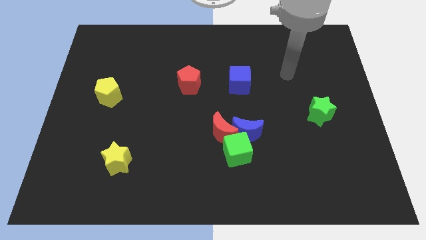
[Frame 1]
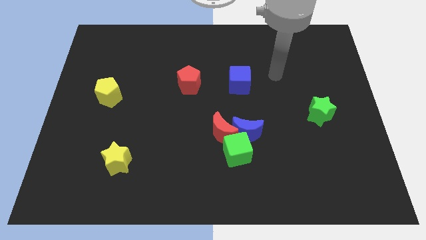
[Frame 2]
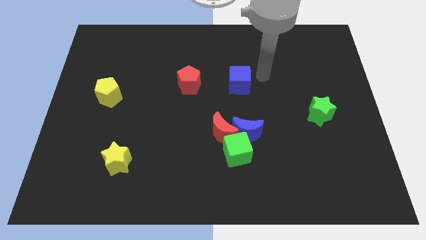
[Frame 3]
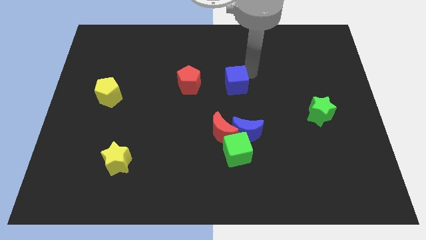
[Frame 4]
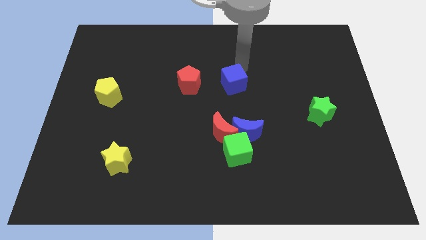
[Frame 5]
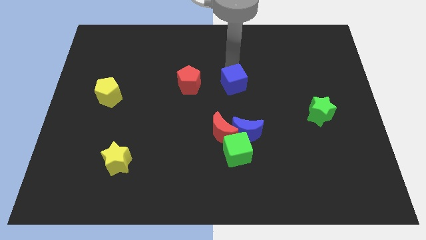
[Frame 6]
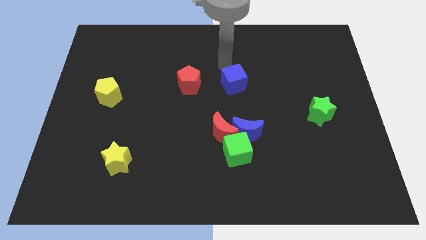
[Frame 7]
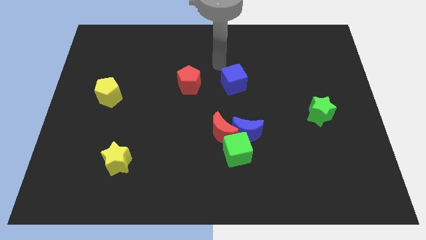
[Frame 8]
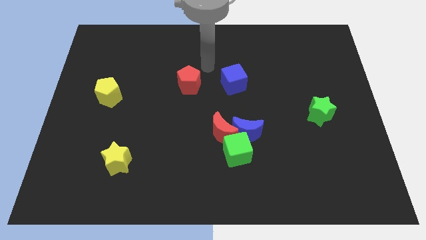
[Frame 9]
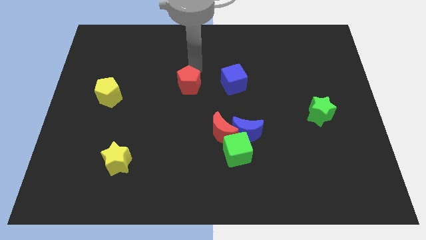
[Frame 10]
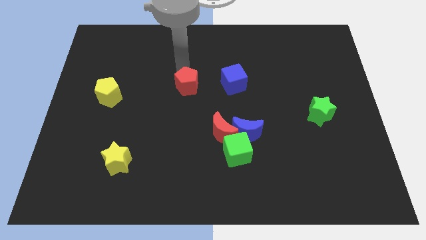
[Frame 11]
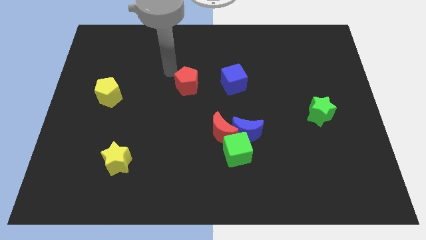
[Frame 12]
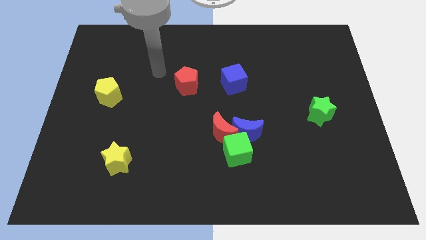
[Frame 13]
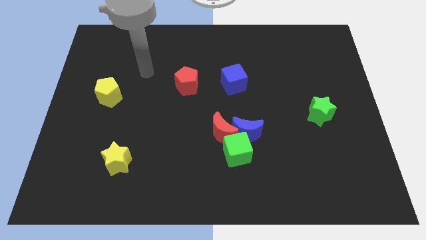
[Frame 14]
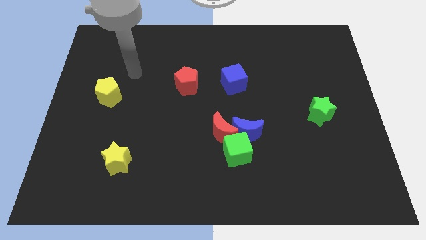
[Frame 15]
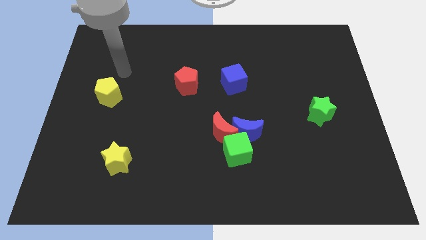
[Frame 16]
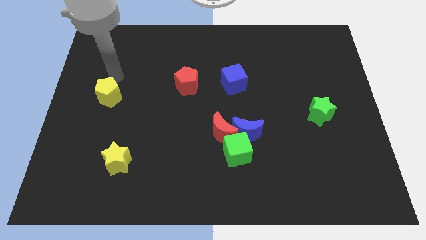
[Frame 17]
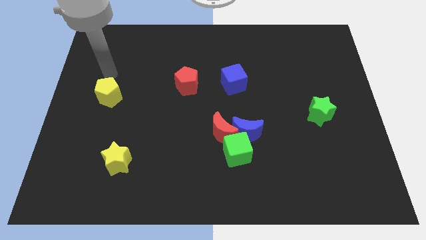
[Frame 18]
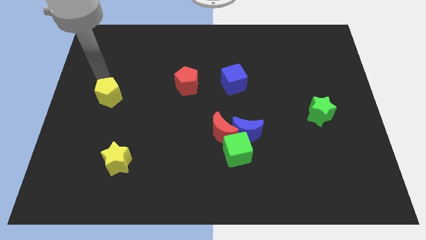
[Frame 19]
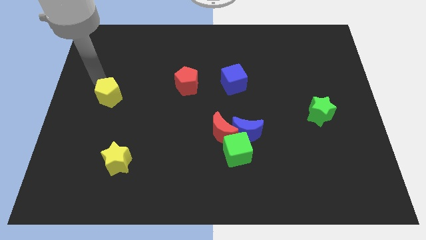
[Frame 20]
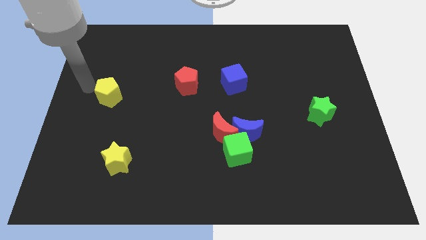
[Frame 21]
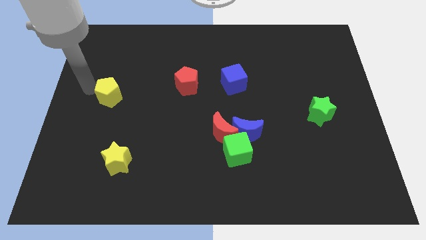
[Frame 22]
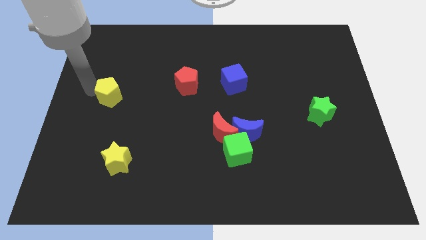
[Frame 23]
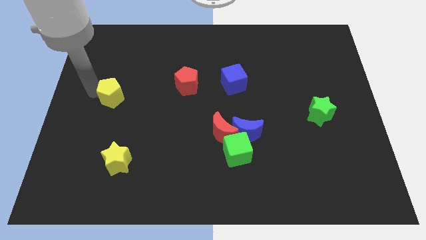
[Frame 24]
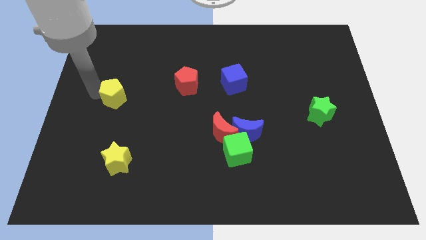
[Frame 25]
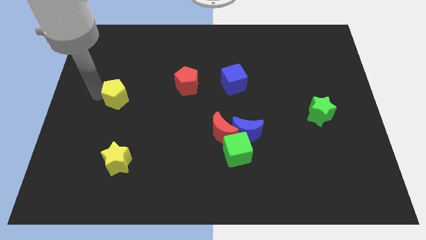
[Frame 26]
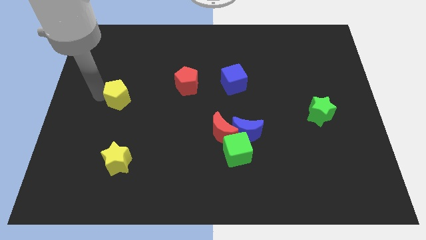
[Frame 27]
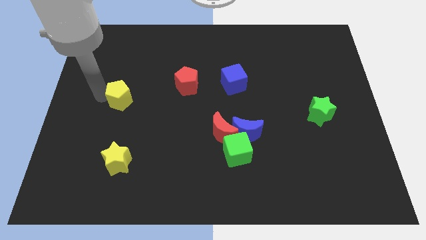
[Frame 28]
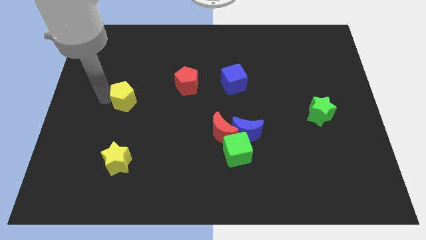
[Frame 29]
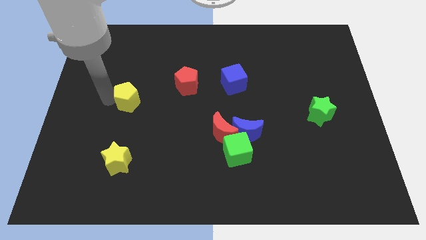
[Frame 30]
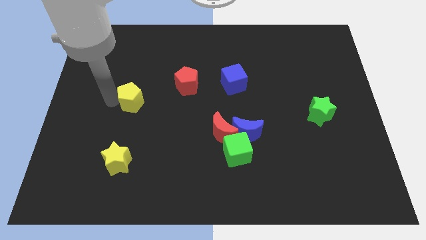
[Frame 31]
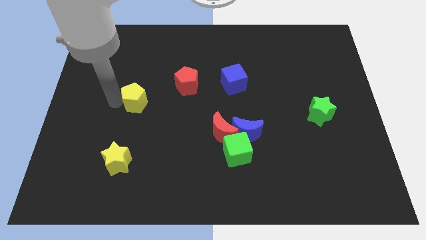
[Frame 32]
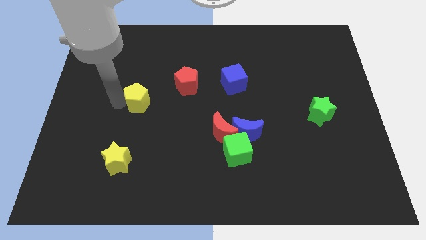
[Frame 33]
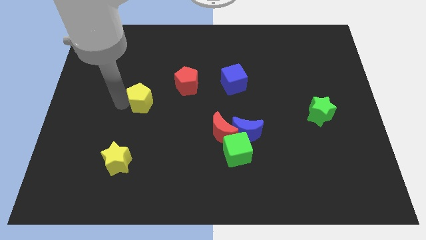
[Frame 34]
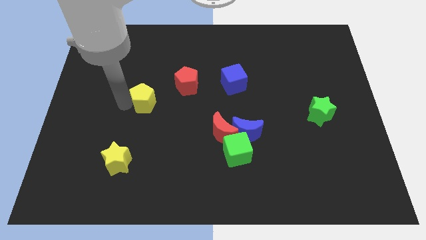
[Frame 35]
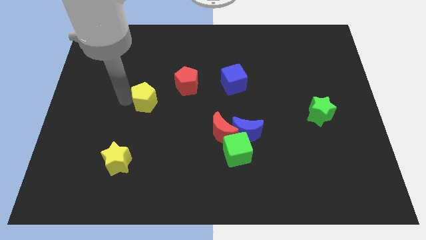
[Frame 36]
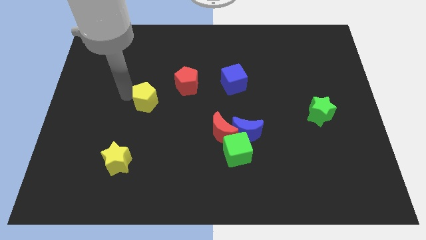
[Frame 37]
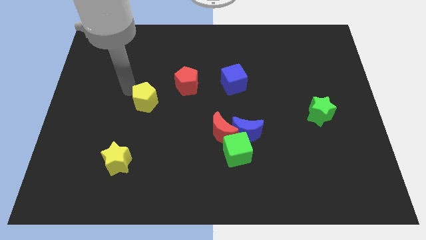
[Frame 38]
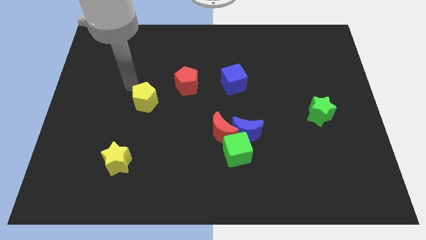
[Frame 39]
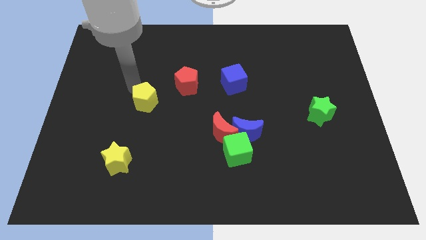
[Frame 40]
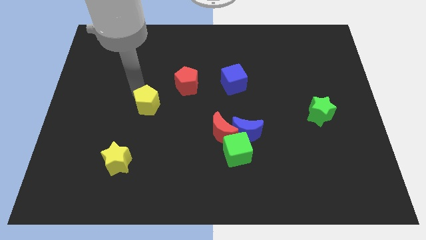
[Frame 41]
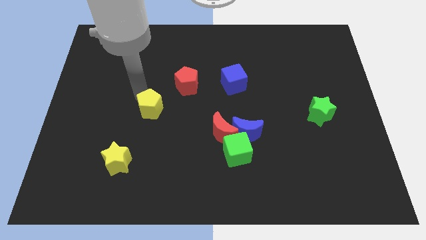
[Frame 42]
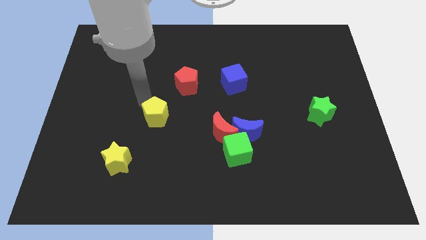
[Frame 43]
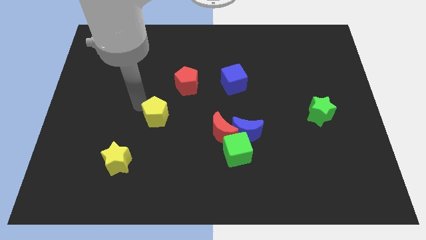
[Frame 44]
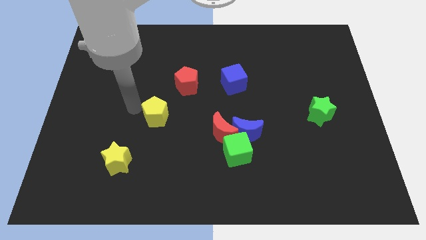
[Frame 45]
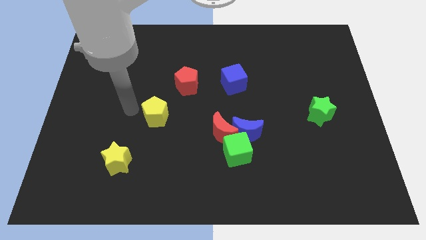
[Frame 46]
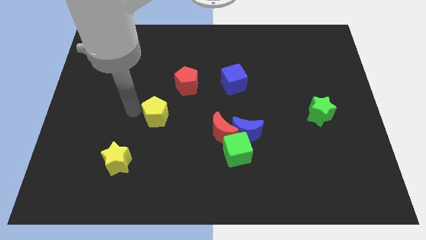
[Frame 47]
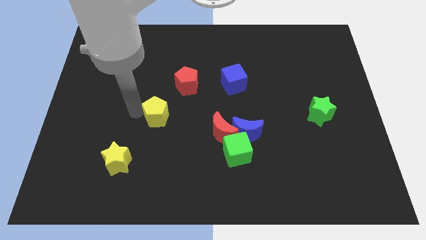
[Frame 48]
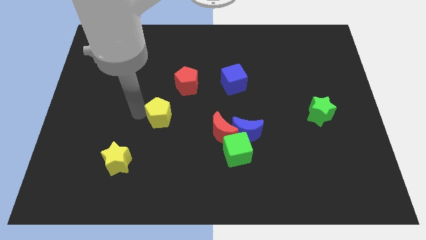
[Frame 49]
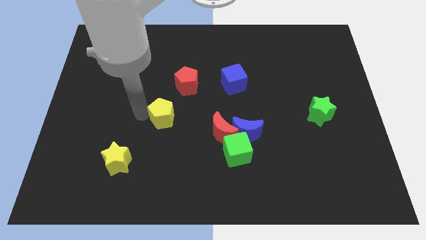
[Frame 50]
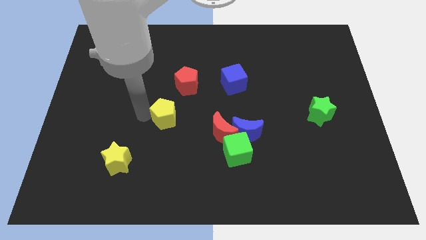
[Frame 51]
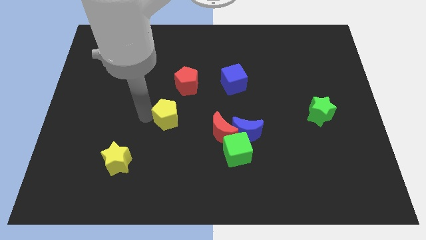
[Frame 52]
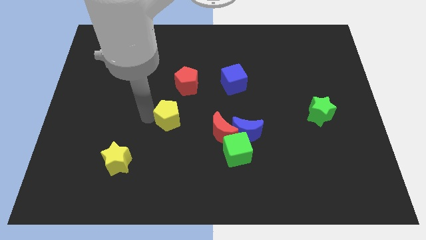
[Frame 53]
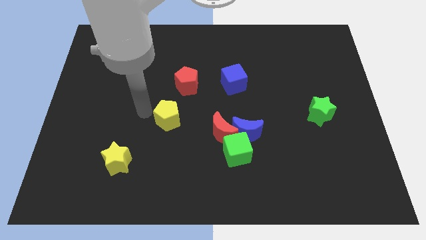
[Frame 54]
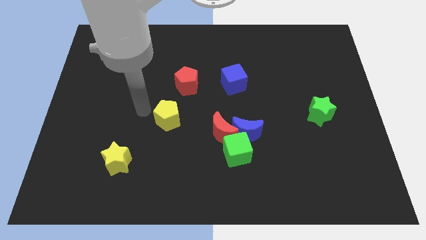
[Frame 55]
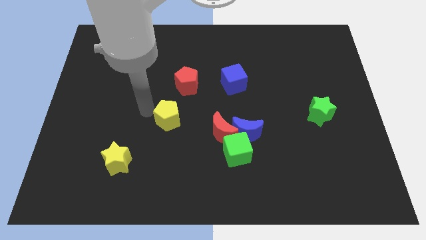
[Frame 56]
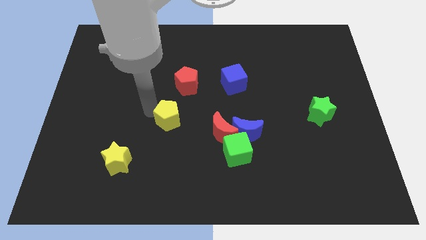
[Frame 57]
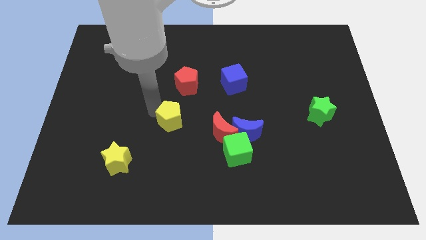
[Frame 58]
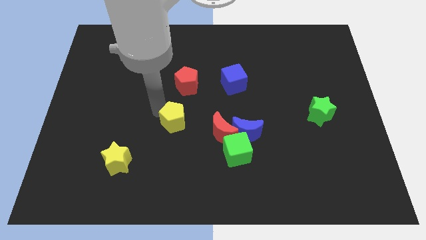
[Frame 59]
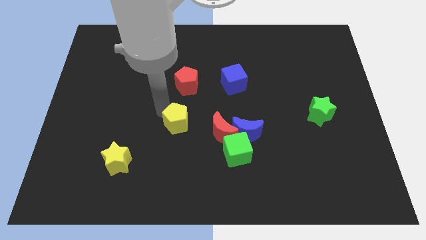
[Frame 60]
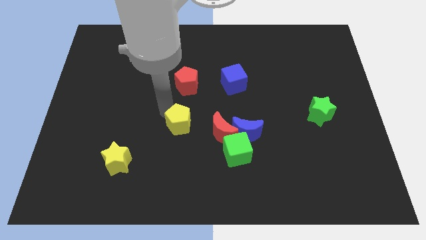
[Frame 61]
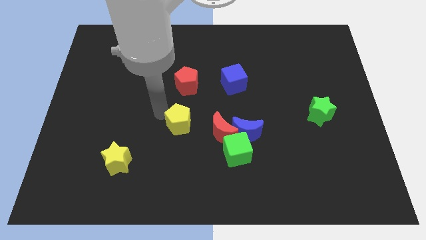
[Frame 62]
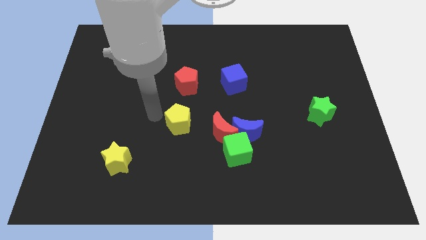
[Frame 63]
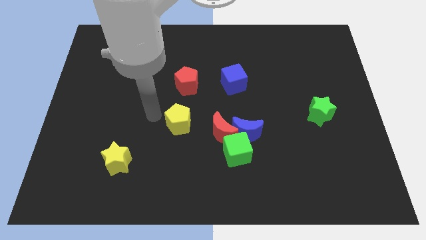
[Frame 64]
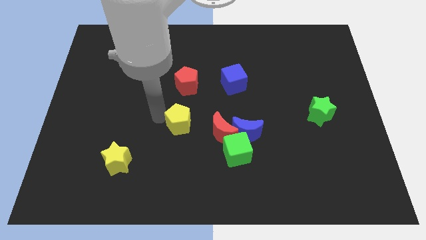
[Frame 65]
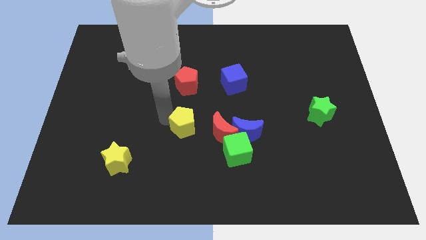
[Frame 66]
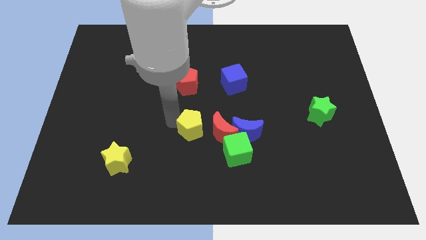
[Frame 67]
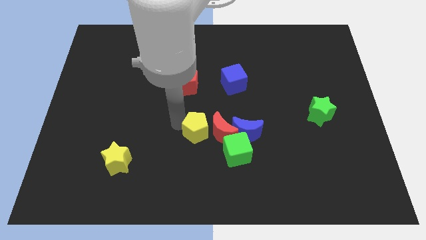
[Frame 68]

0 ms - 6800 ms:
push the yellow pentagon to the red moon

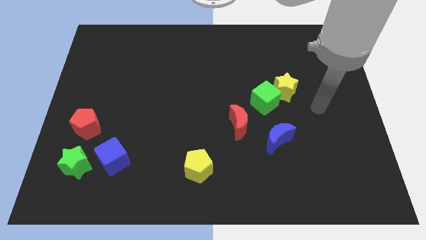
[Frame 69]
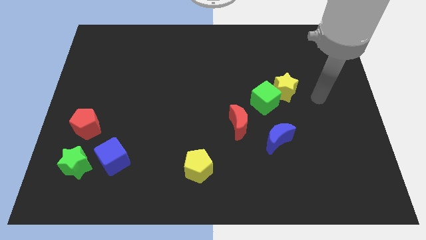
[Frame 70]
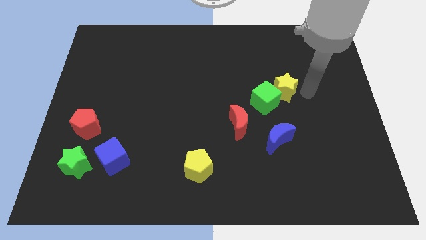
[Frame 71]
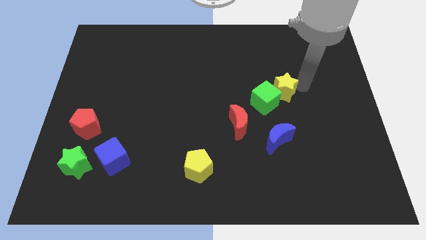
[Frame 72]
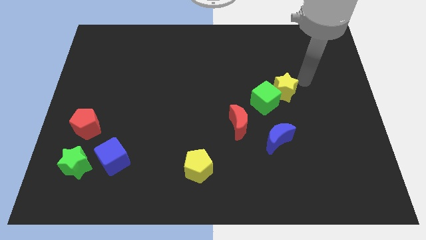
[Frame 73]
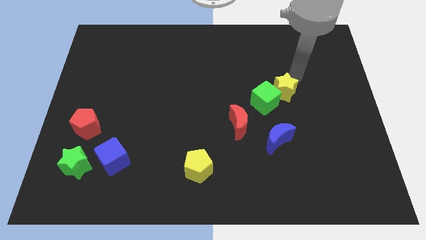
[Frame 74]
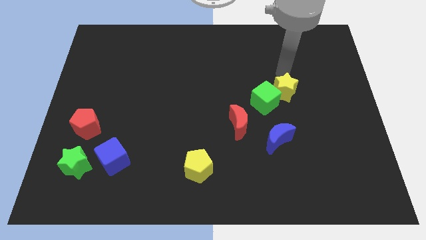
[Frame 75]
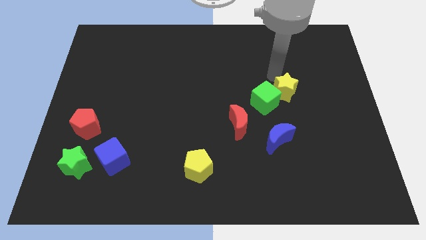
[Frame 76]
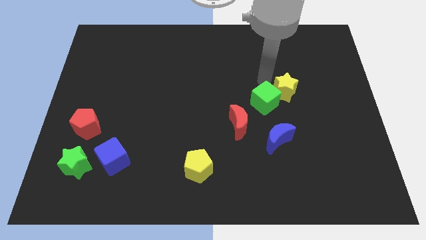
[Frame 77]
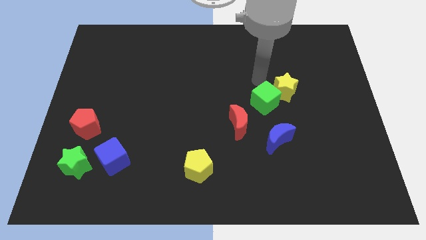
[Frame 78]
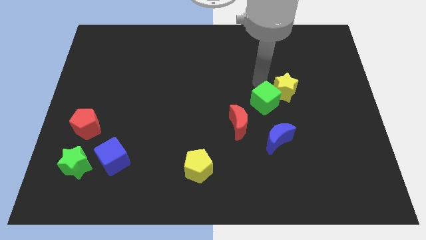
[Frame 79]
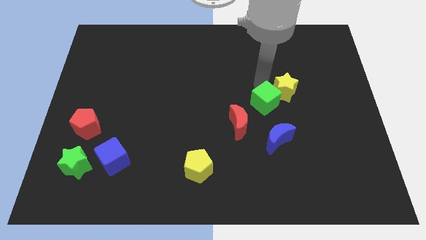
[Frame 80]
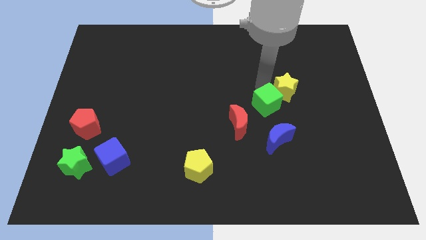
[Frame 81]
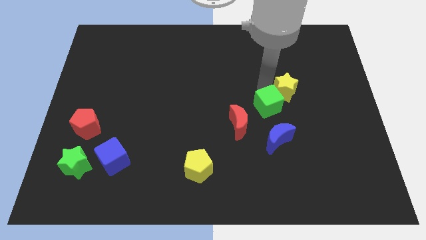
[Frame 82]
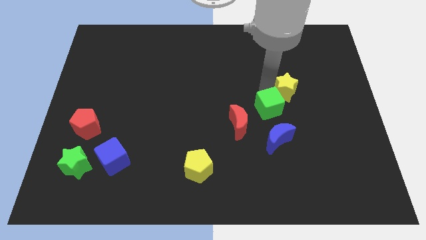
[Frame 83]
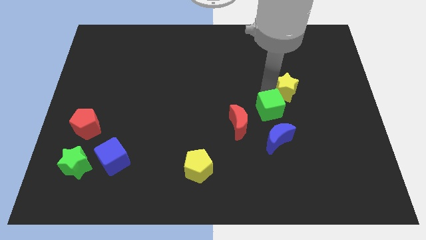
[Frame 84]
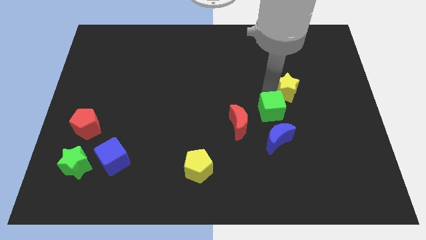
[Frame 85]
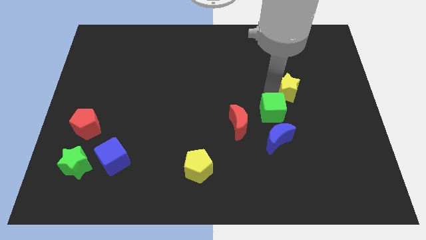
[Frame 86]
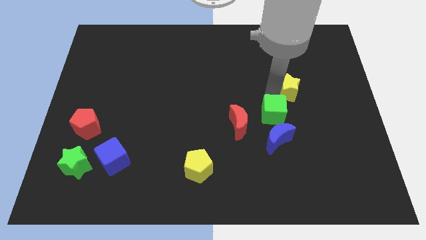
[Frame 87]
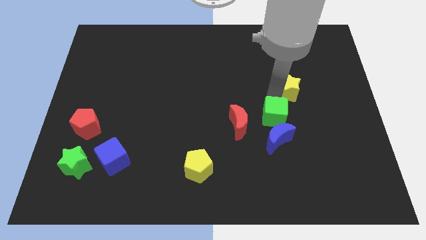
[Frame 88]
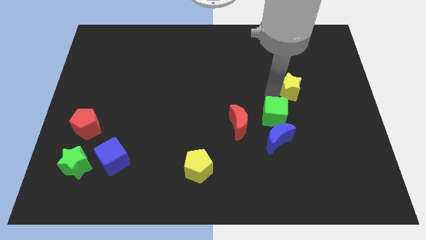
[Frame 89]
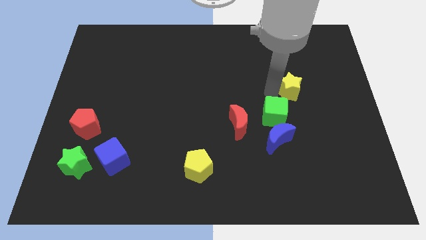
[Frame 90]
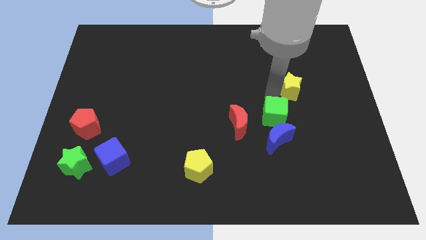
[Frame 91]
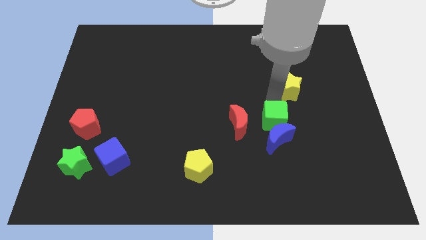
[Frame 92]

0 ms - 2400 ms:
move the green cube next to the blue moon
